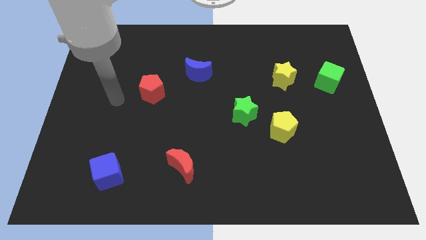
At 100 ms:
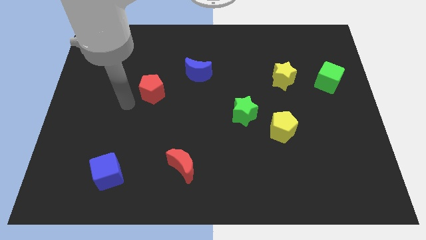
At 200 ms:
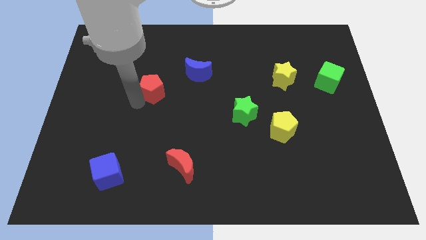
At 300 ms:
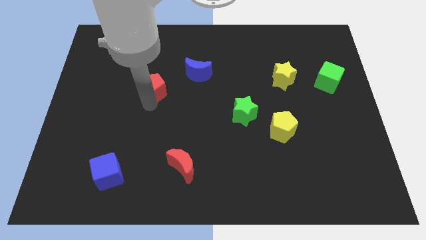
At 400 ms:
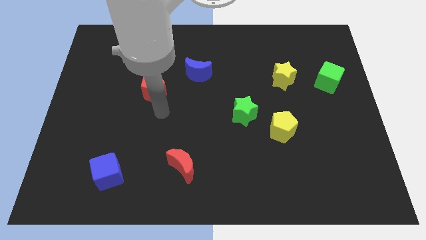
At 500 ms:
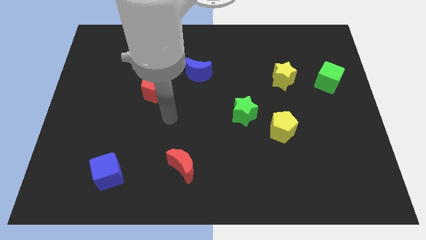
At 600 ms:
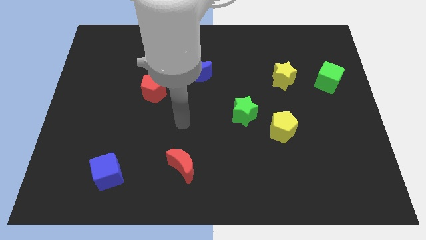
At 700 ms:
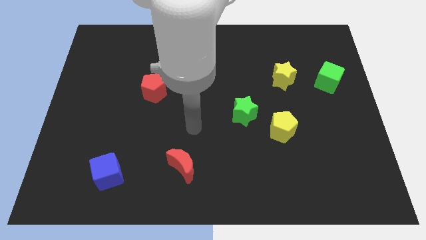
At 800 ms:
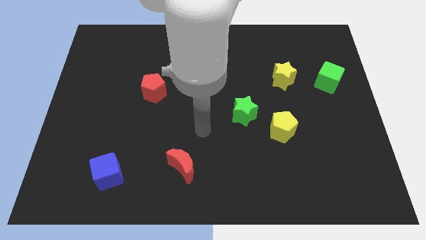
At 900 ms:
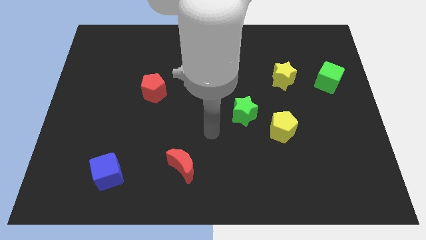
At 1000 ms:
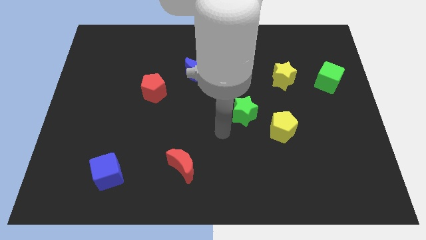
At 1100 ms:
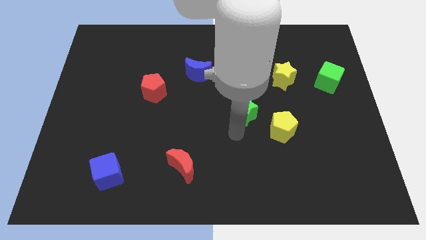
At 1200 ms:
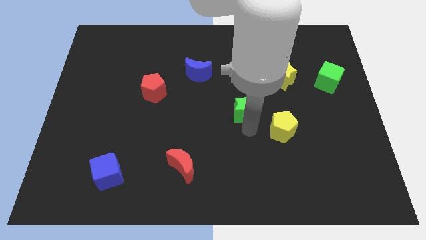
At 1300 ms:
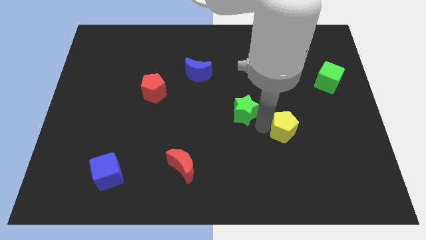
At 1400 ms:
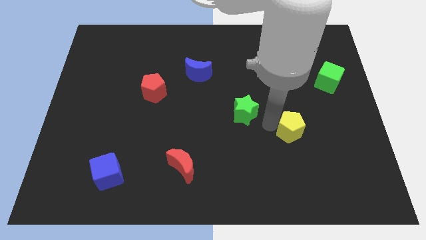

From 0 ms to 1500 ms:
move the green star away from the yellow pentagon

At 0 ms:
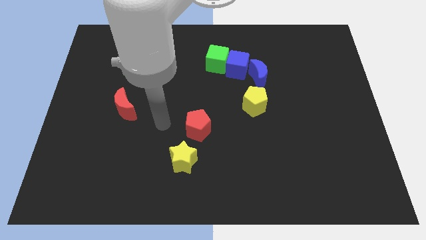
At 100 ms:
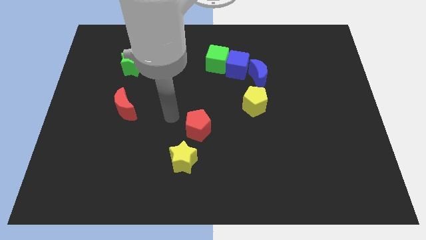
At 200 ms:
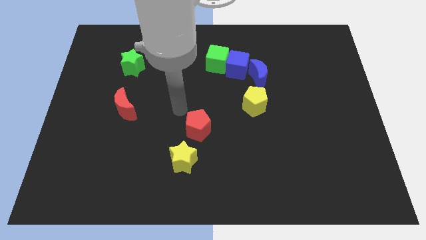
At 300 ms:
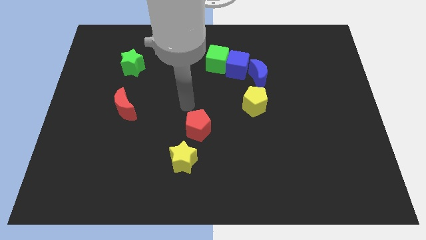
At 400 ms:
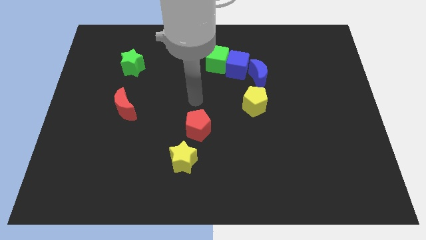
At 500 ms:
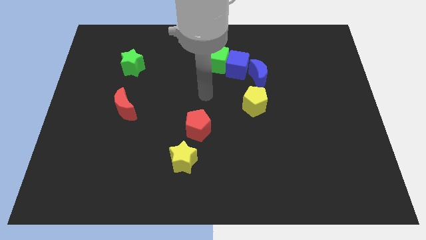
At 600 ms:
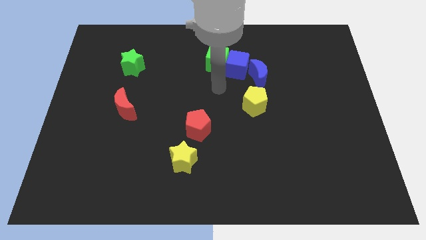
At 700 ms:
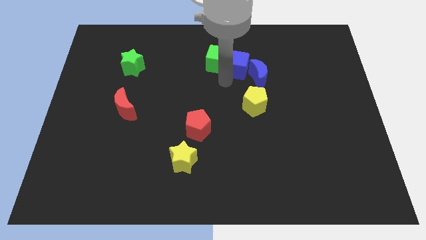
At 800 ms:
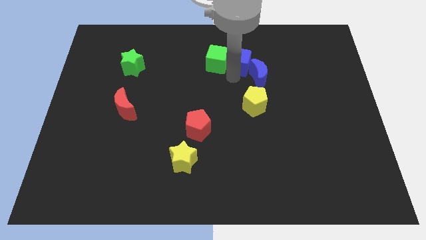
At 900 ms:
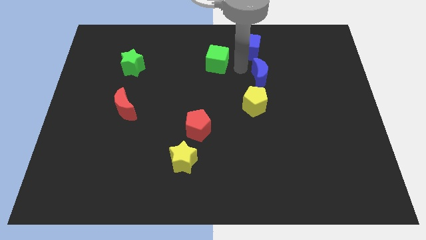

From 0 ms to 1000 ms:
move the green cube away from the blue cube

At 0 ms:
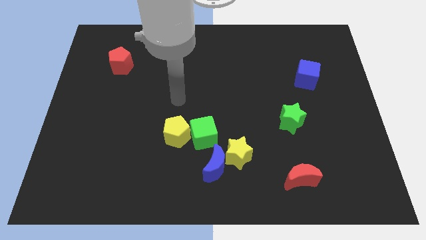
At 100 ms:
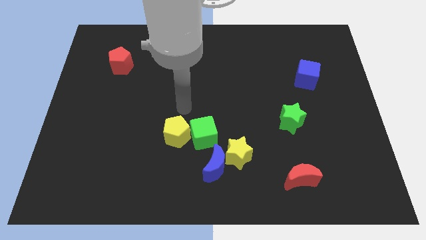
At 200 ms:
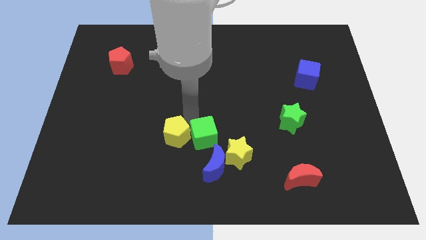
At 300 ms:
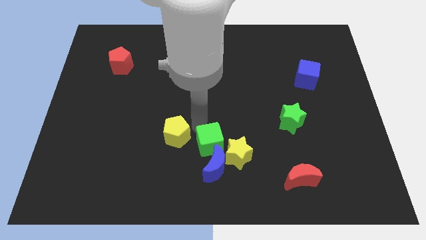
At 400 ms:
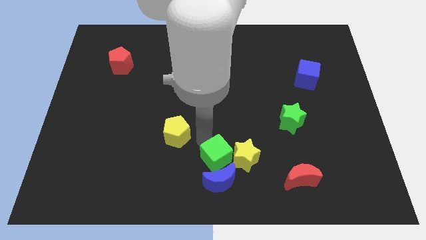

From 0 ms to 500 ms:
move the yellow pentagon away from the green cube

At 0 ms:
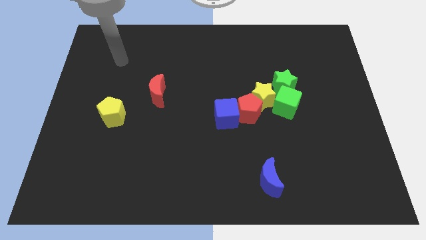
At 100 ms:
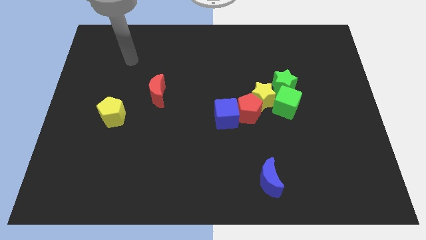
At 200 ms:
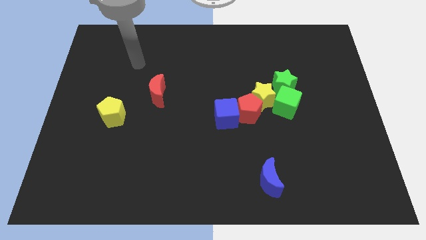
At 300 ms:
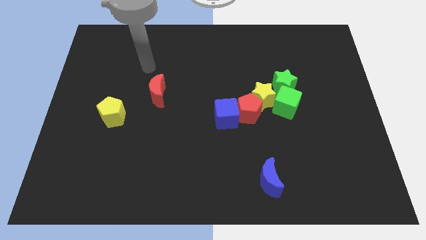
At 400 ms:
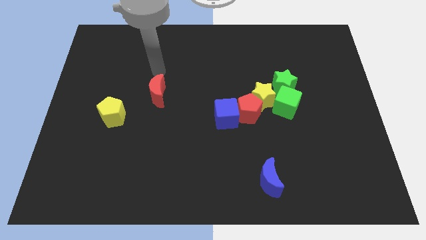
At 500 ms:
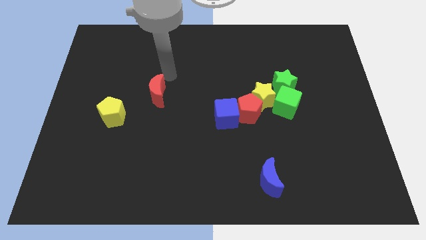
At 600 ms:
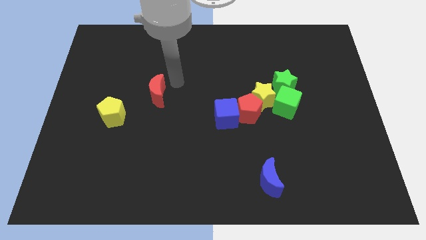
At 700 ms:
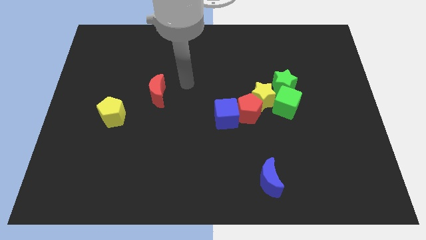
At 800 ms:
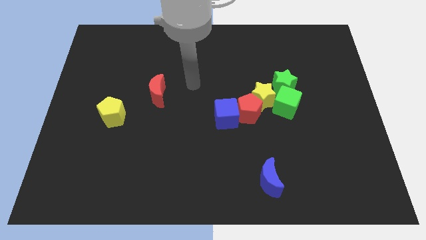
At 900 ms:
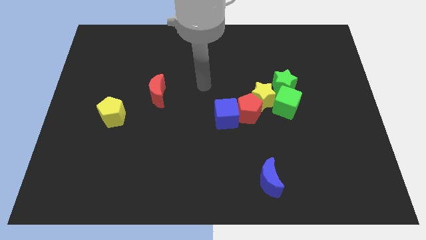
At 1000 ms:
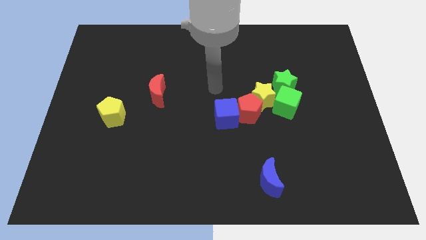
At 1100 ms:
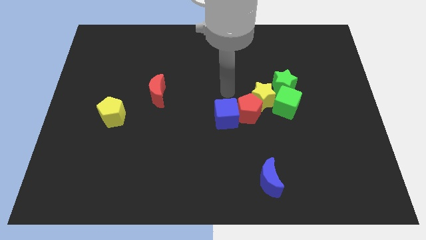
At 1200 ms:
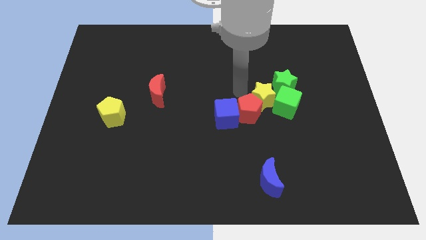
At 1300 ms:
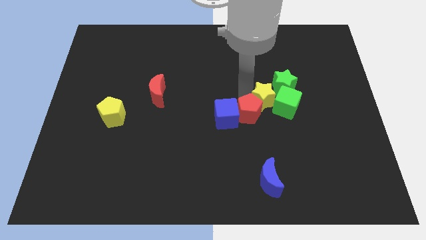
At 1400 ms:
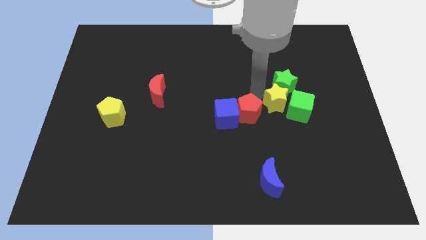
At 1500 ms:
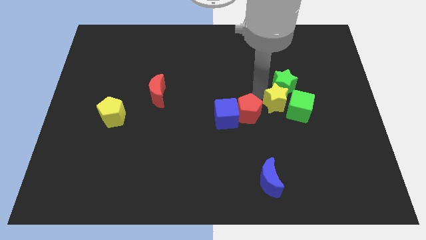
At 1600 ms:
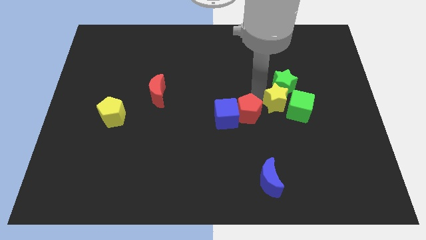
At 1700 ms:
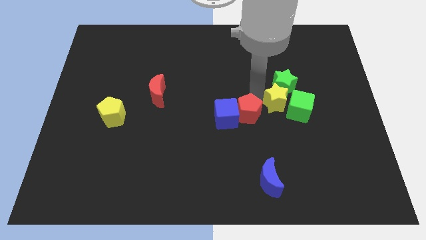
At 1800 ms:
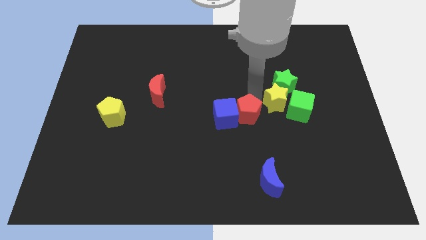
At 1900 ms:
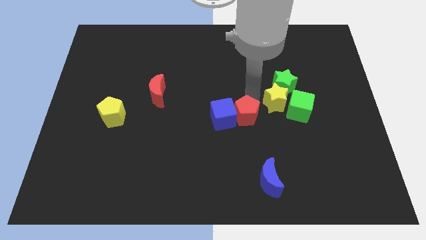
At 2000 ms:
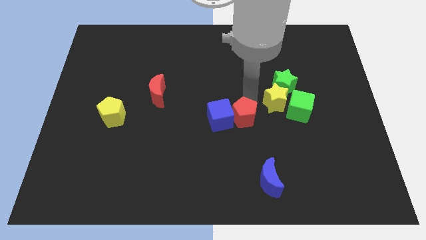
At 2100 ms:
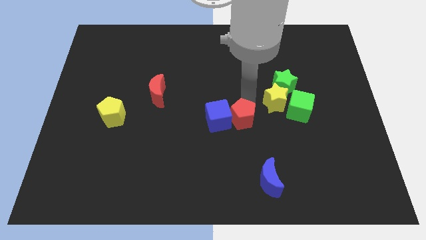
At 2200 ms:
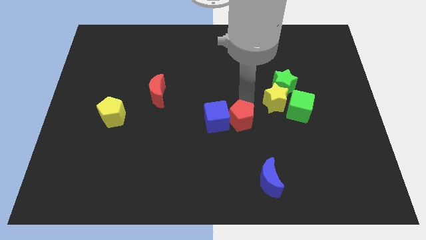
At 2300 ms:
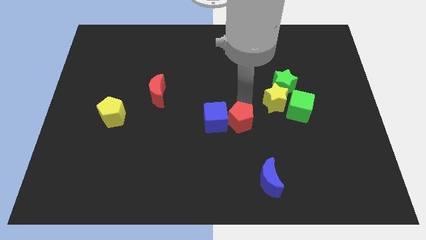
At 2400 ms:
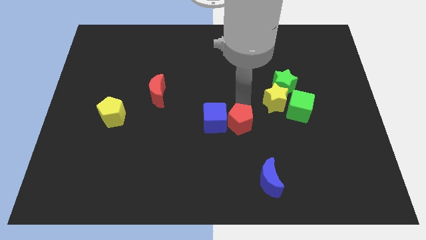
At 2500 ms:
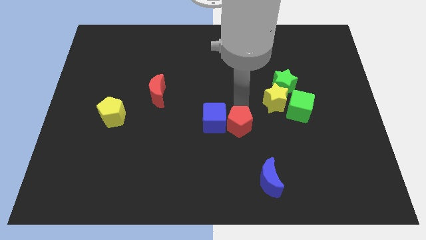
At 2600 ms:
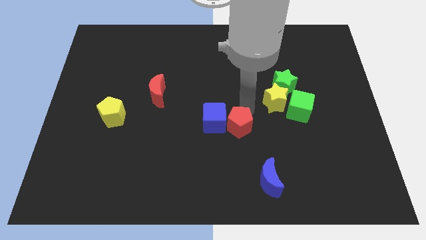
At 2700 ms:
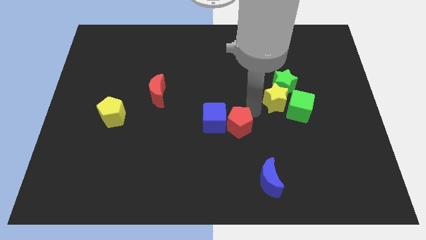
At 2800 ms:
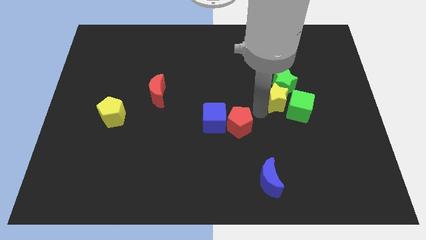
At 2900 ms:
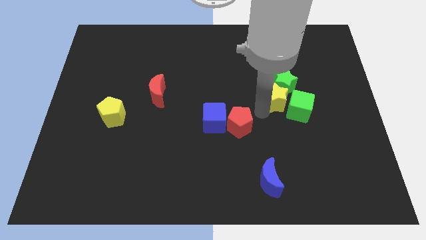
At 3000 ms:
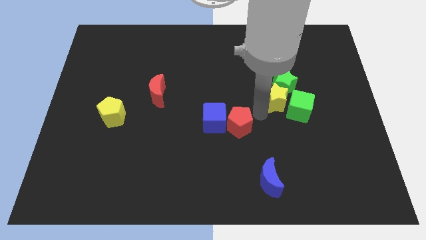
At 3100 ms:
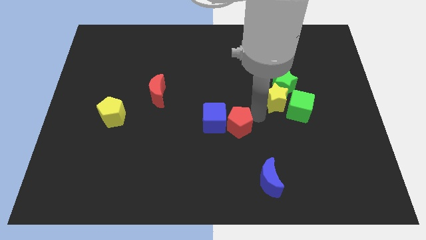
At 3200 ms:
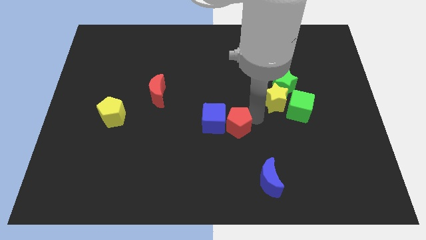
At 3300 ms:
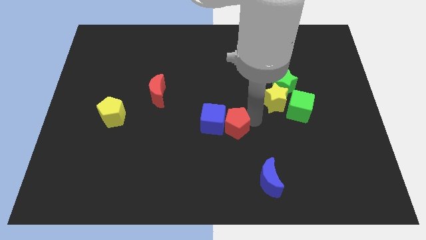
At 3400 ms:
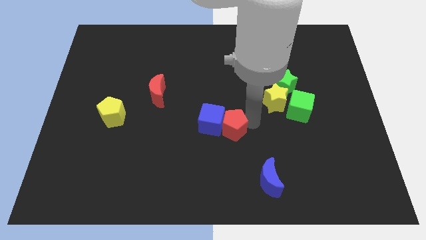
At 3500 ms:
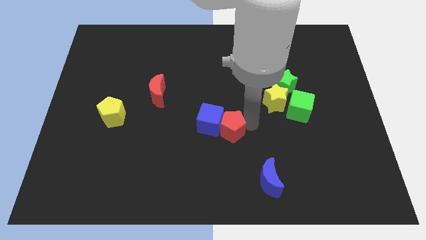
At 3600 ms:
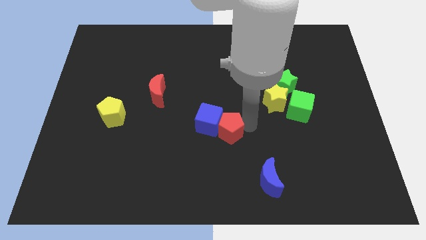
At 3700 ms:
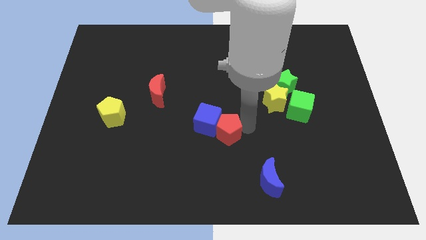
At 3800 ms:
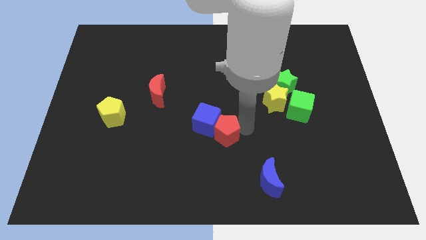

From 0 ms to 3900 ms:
move the red pentagon away from the yellow star, blue cube, and green cube

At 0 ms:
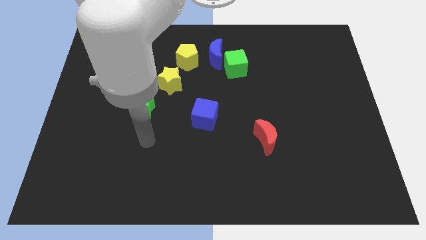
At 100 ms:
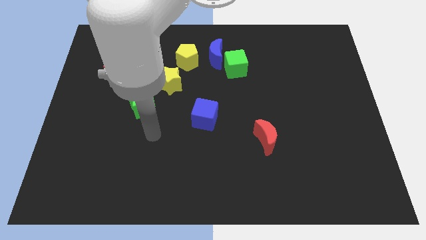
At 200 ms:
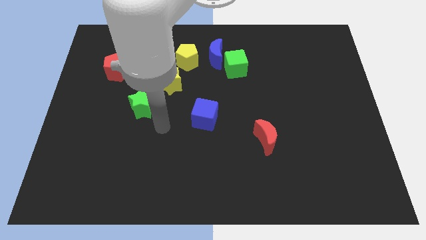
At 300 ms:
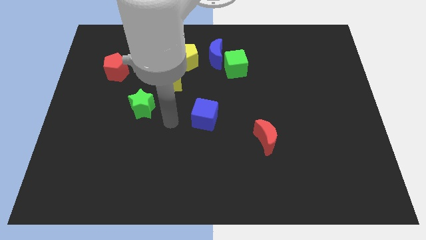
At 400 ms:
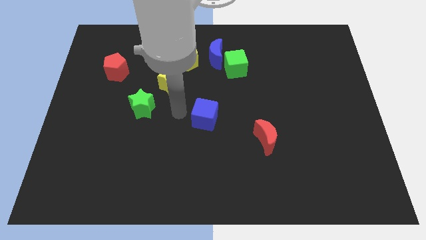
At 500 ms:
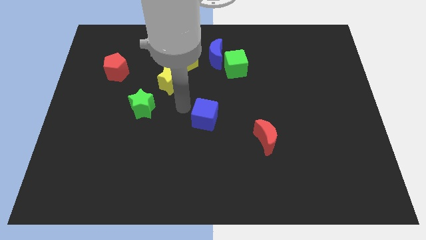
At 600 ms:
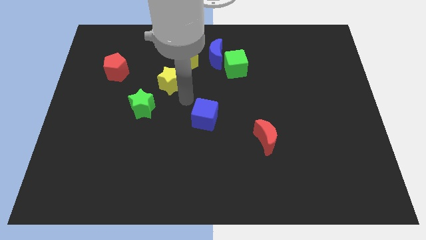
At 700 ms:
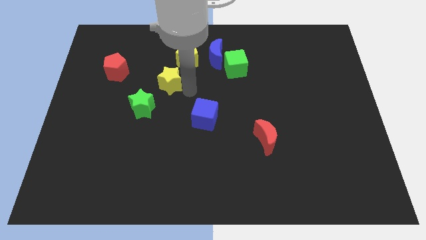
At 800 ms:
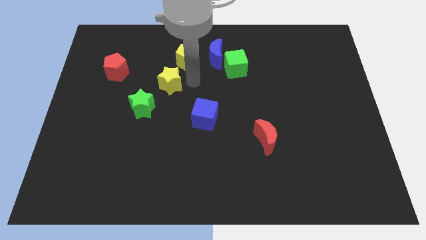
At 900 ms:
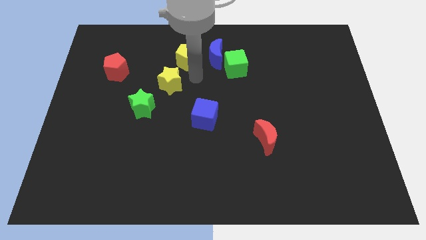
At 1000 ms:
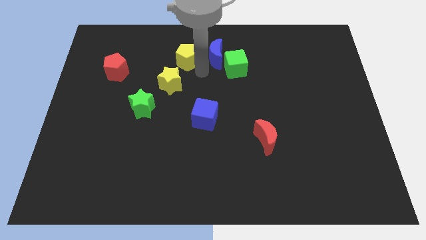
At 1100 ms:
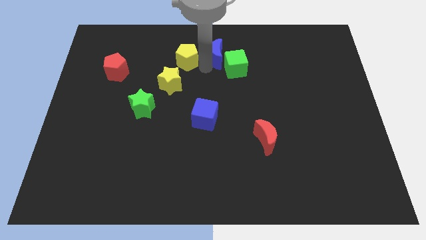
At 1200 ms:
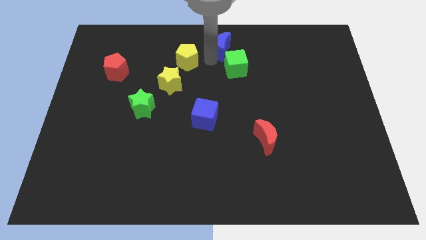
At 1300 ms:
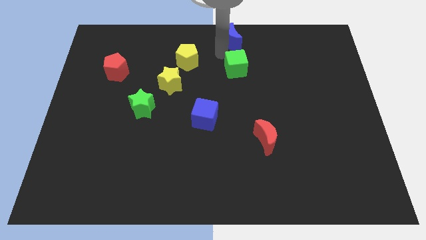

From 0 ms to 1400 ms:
move the green cube away from the blue moon

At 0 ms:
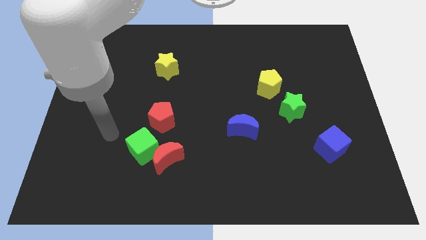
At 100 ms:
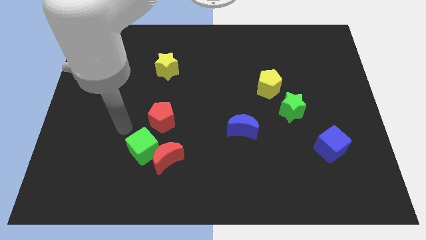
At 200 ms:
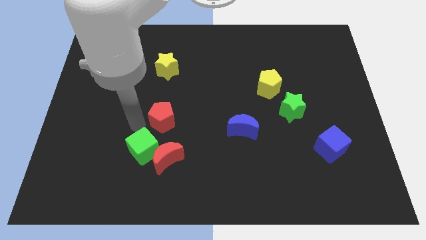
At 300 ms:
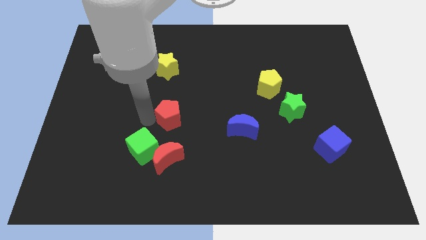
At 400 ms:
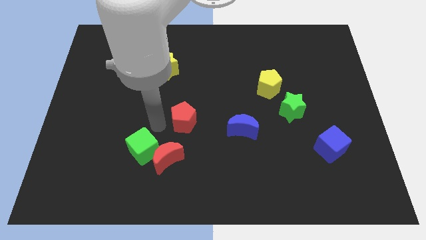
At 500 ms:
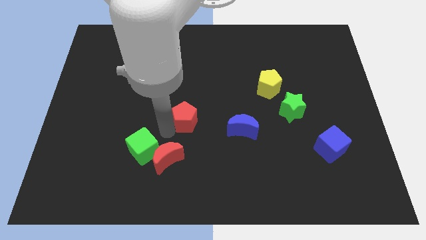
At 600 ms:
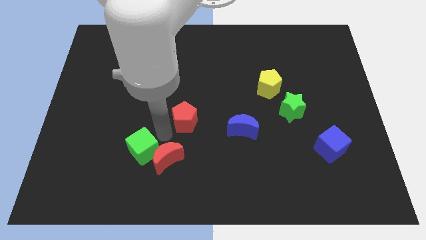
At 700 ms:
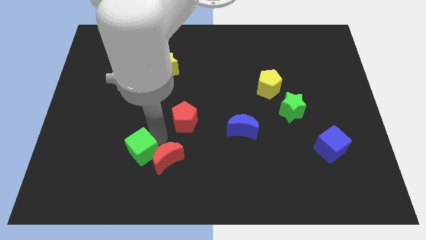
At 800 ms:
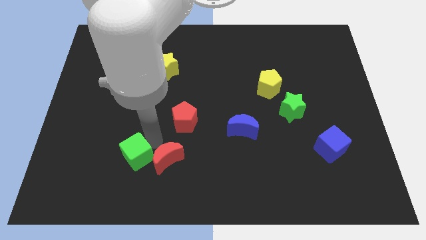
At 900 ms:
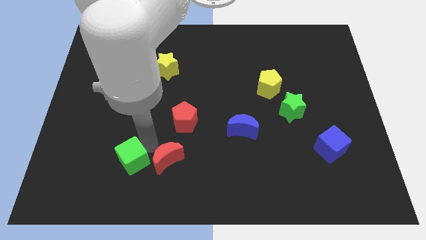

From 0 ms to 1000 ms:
pull the green cube apart from the red moon and red pentagon

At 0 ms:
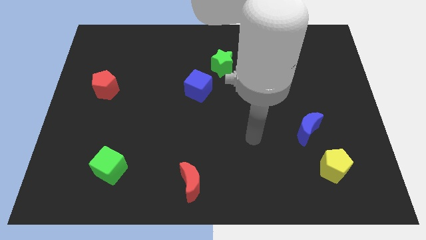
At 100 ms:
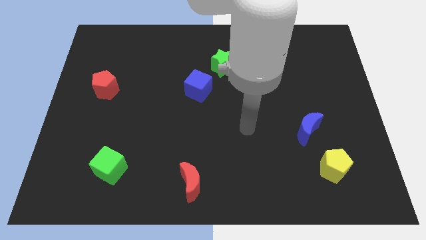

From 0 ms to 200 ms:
pull the blue cube apart from the green star
